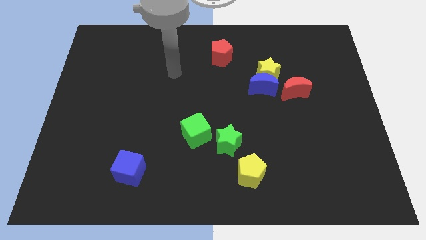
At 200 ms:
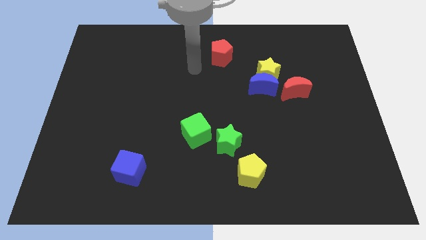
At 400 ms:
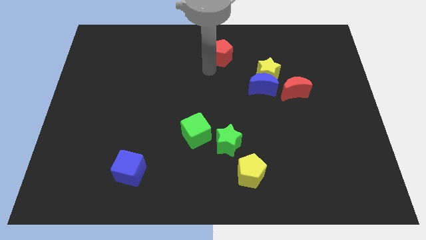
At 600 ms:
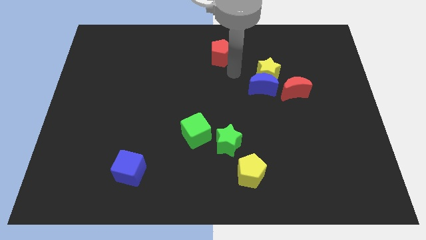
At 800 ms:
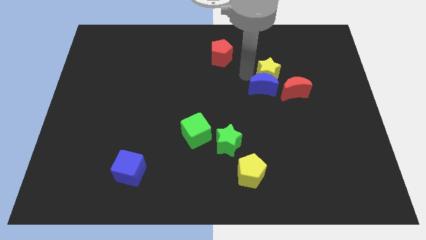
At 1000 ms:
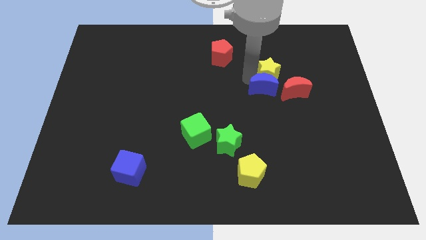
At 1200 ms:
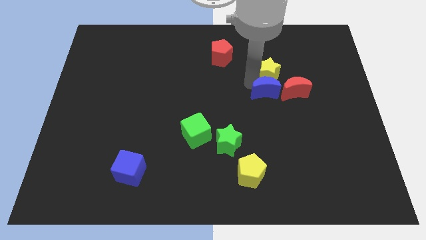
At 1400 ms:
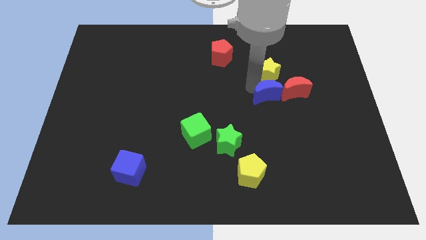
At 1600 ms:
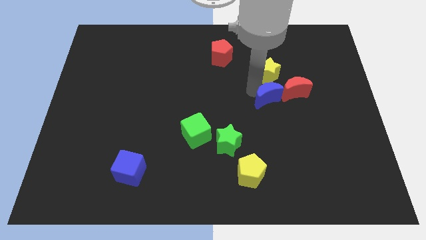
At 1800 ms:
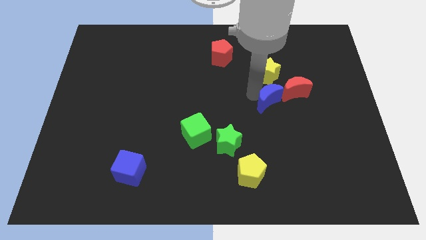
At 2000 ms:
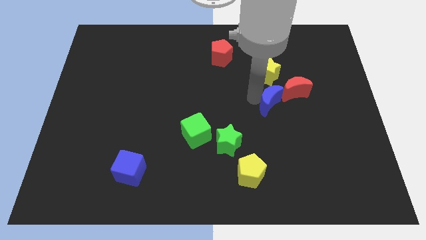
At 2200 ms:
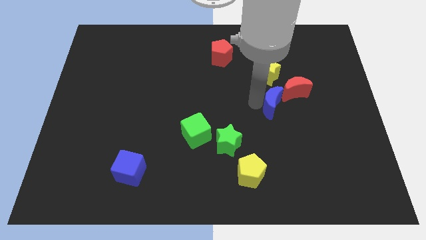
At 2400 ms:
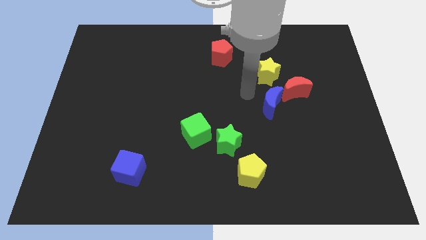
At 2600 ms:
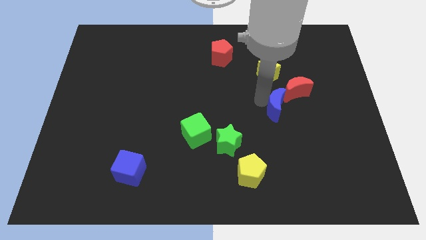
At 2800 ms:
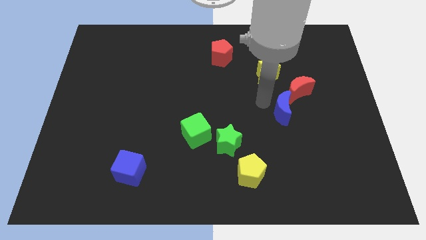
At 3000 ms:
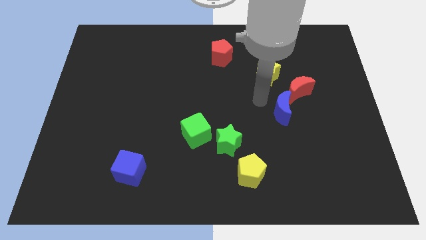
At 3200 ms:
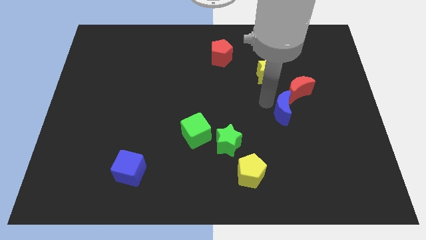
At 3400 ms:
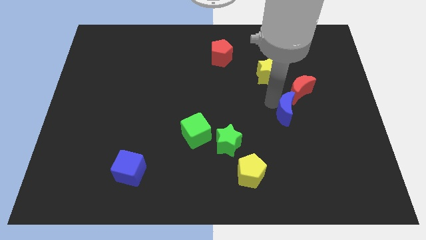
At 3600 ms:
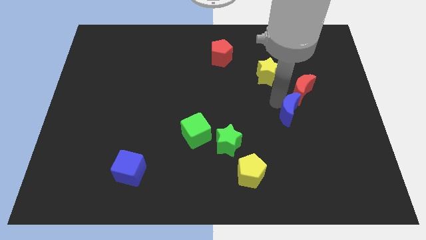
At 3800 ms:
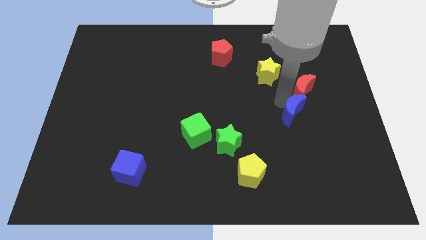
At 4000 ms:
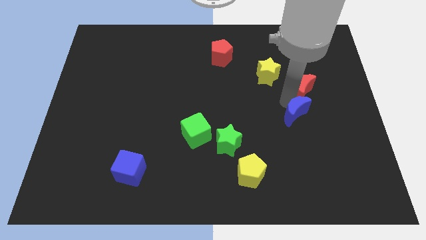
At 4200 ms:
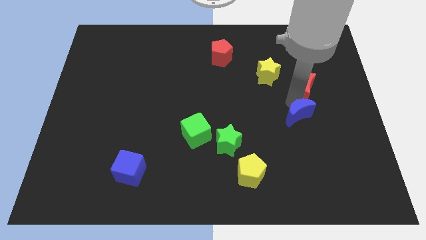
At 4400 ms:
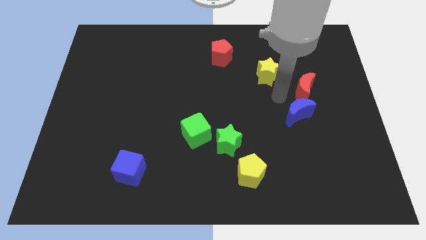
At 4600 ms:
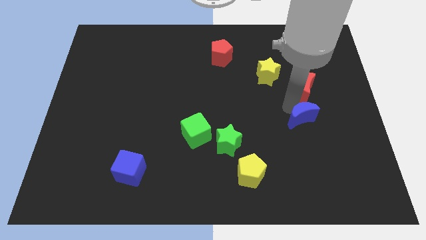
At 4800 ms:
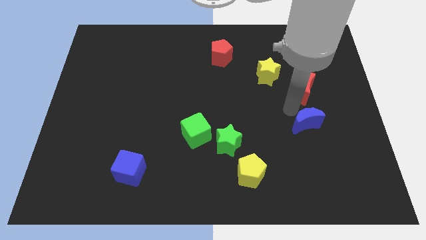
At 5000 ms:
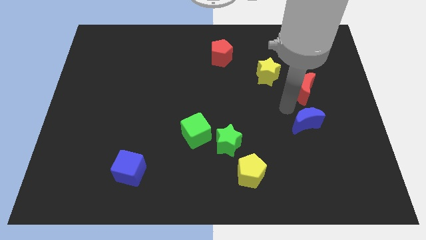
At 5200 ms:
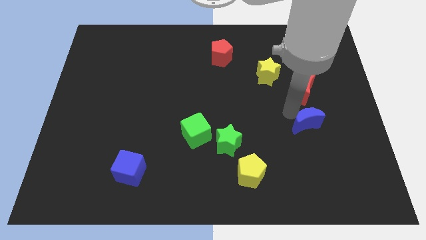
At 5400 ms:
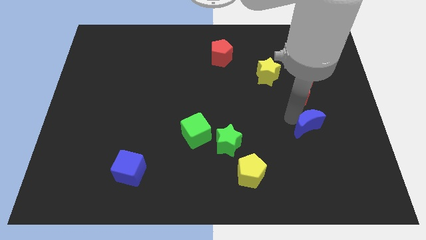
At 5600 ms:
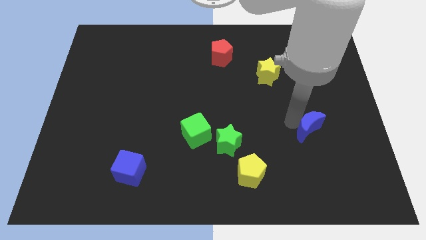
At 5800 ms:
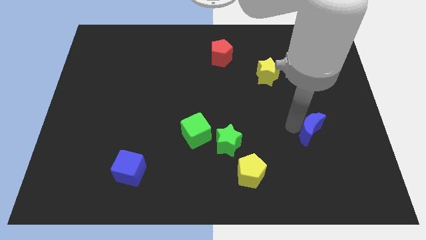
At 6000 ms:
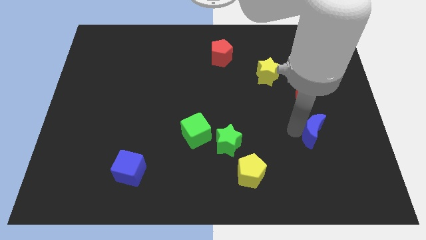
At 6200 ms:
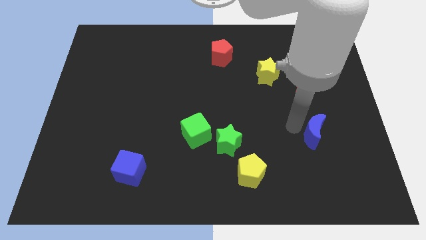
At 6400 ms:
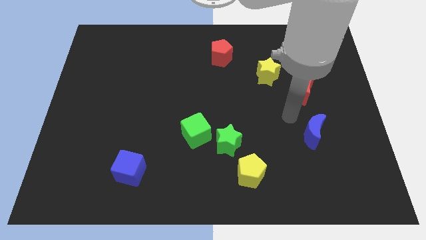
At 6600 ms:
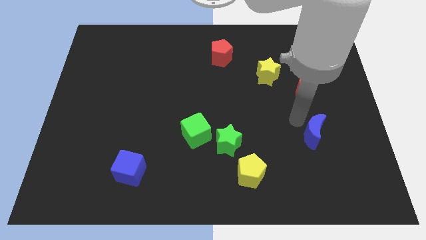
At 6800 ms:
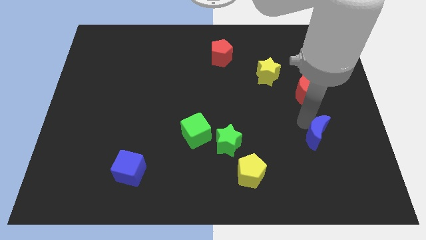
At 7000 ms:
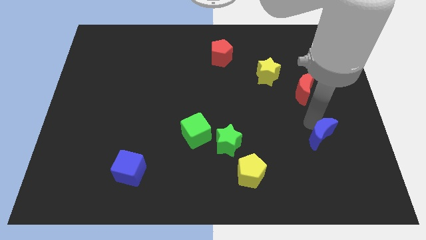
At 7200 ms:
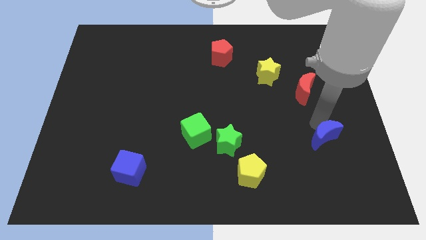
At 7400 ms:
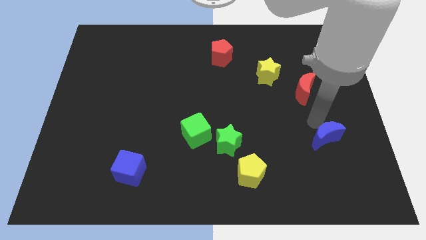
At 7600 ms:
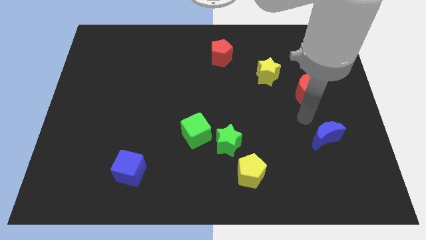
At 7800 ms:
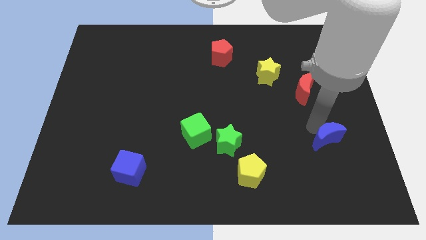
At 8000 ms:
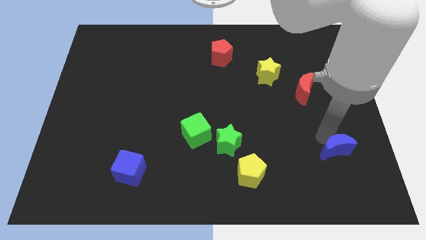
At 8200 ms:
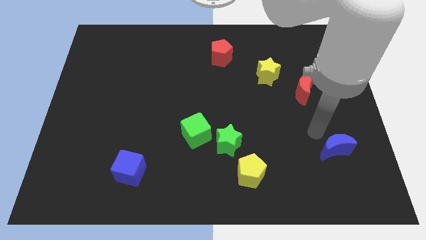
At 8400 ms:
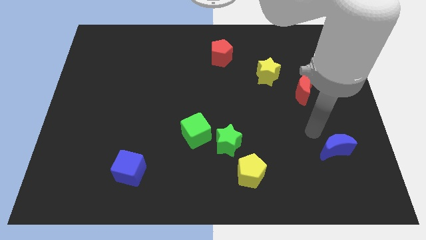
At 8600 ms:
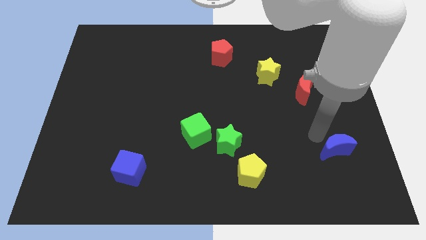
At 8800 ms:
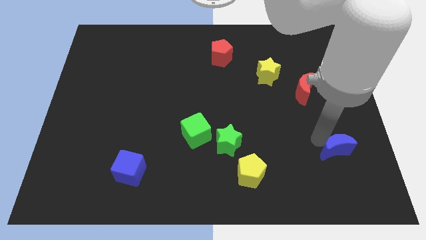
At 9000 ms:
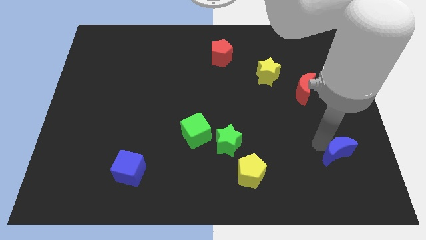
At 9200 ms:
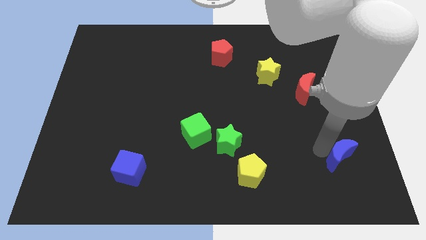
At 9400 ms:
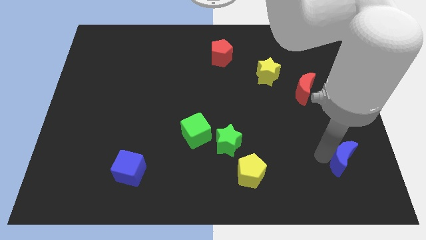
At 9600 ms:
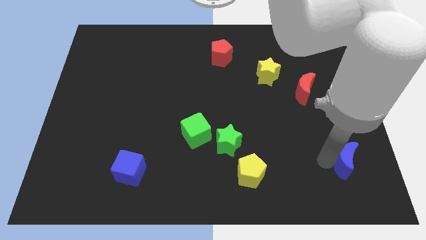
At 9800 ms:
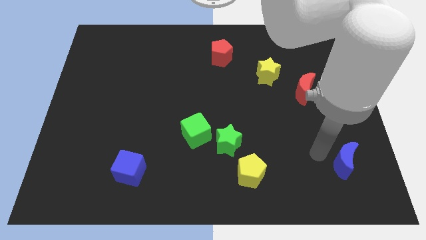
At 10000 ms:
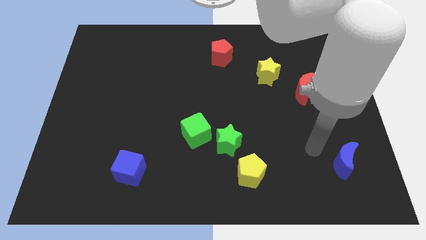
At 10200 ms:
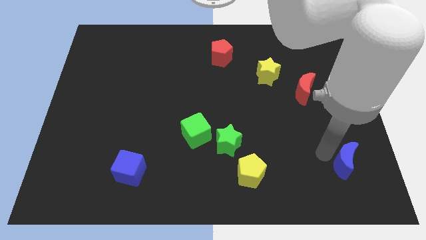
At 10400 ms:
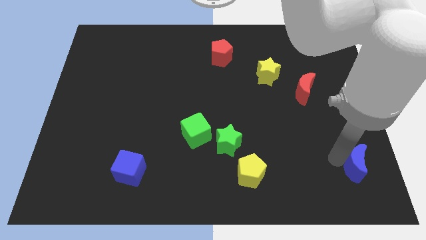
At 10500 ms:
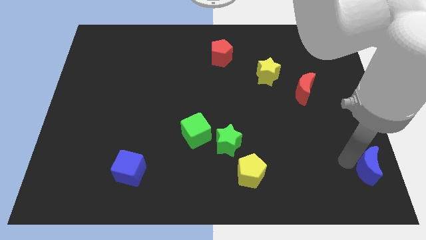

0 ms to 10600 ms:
slide the blue moon to the lower right corner

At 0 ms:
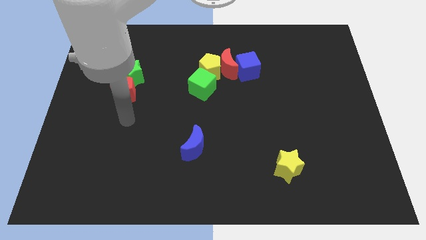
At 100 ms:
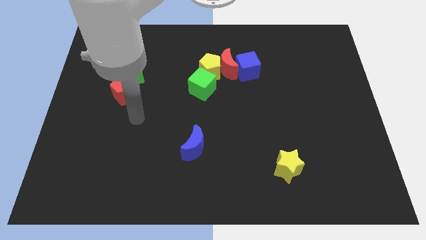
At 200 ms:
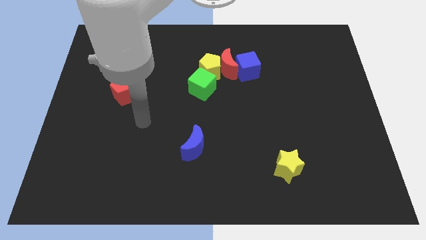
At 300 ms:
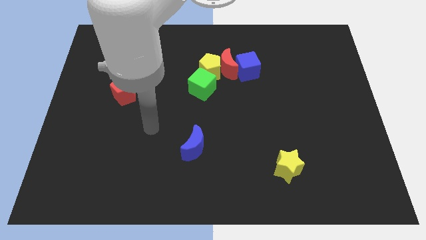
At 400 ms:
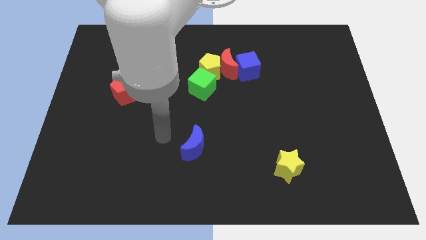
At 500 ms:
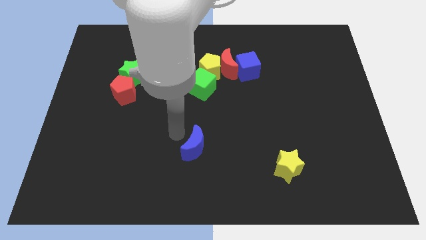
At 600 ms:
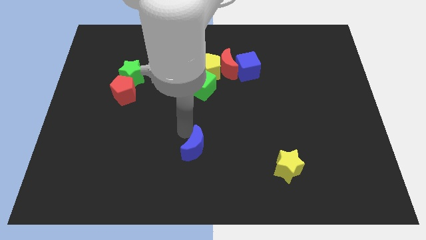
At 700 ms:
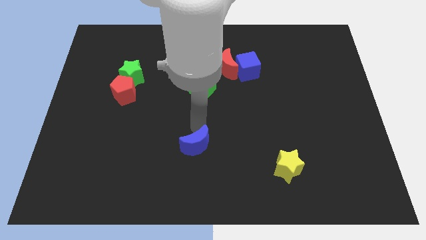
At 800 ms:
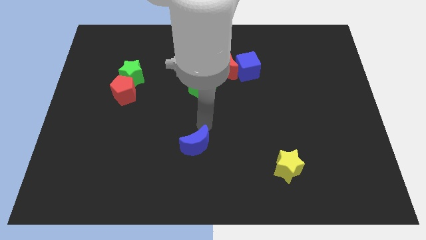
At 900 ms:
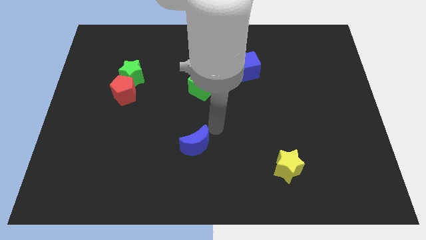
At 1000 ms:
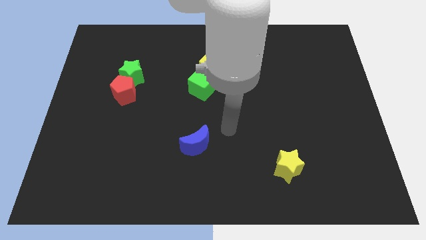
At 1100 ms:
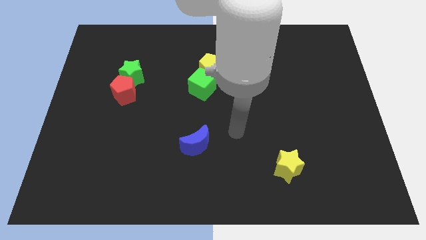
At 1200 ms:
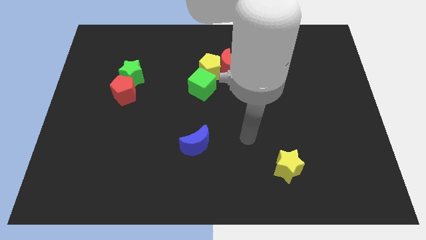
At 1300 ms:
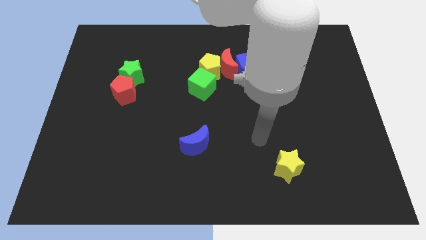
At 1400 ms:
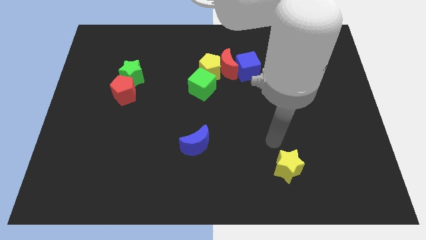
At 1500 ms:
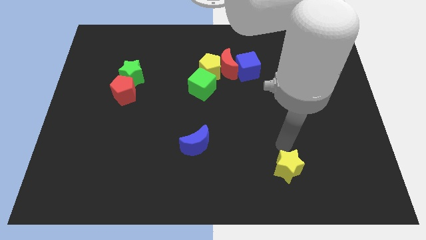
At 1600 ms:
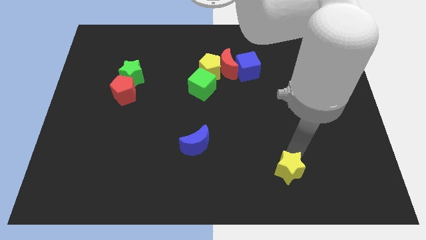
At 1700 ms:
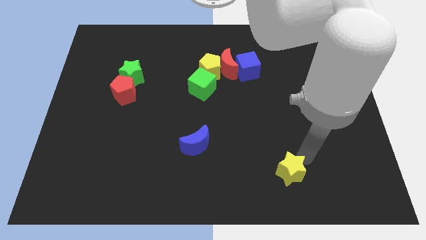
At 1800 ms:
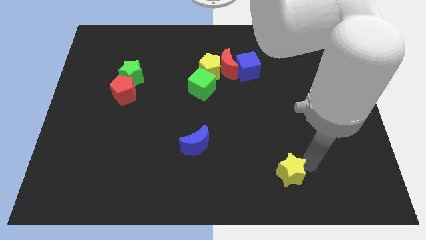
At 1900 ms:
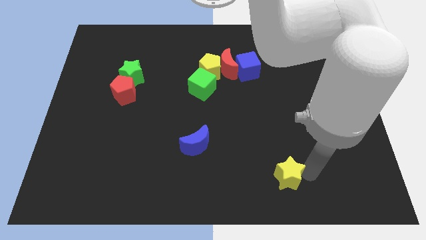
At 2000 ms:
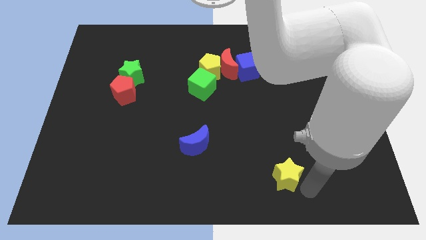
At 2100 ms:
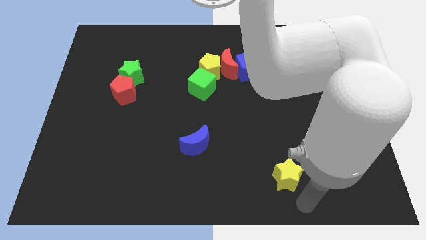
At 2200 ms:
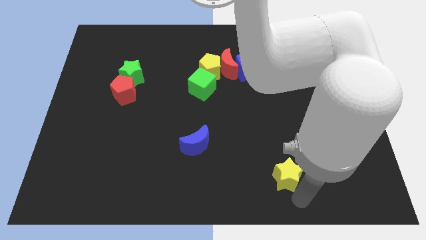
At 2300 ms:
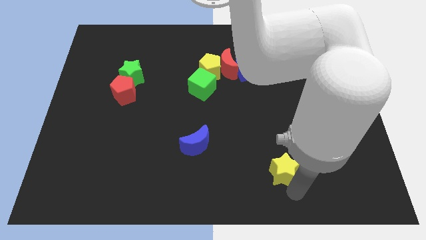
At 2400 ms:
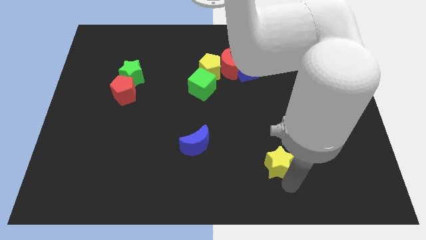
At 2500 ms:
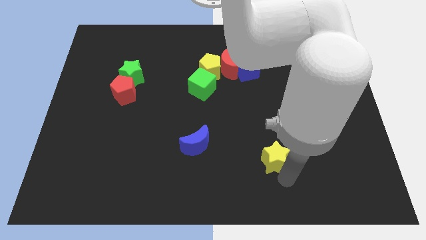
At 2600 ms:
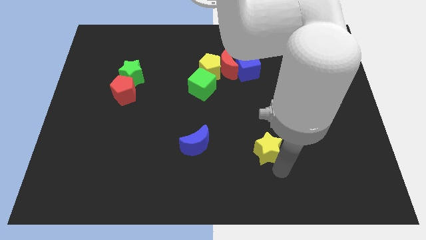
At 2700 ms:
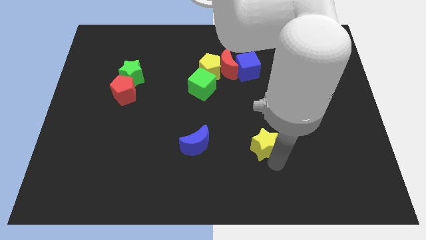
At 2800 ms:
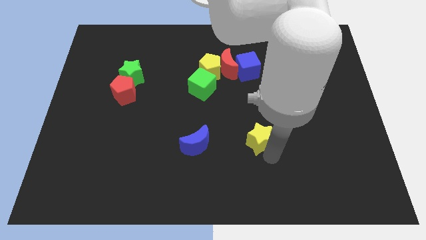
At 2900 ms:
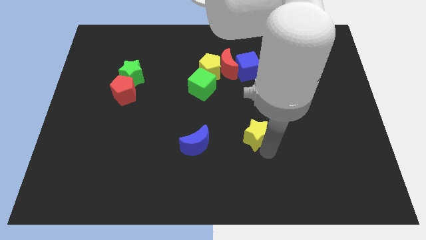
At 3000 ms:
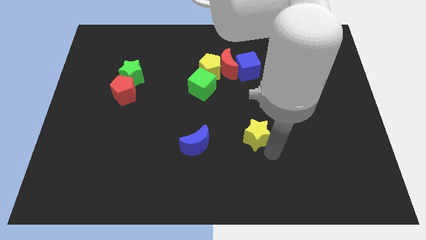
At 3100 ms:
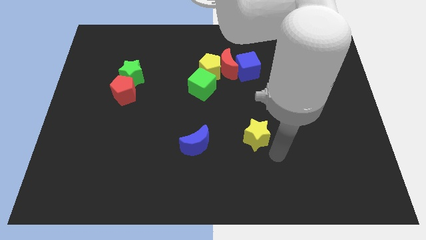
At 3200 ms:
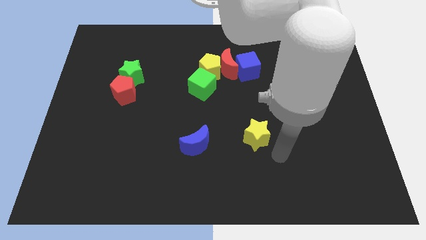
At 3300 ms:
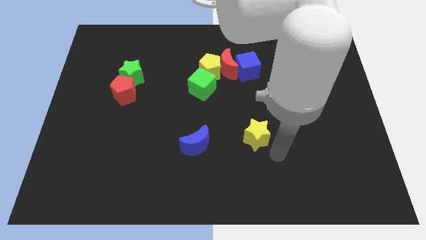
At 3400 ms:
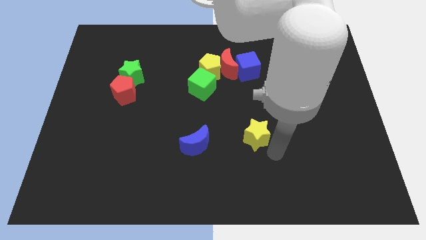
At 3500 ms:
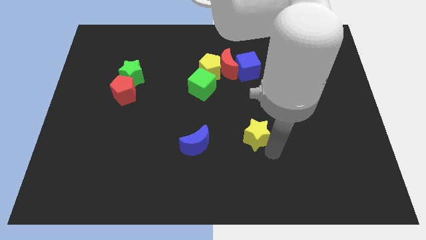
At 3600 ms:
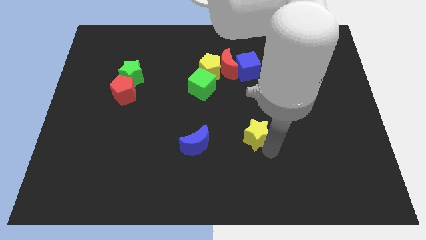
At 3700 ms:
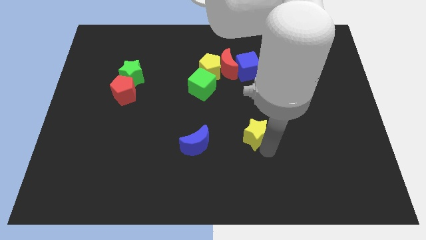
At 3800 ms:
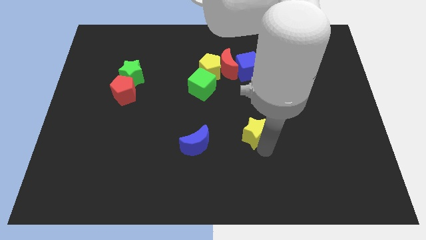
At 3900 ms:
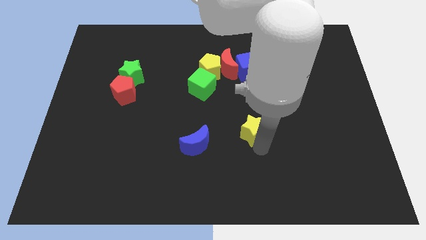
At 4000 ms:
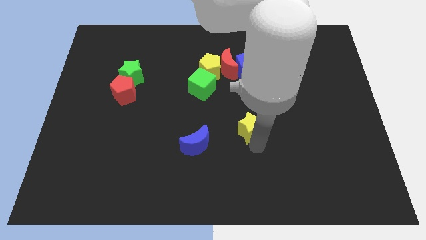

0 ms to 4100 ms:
push the yellow star to the center of the board
